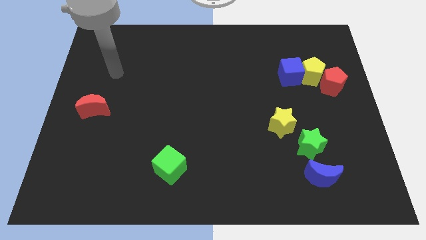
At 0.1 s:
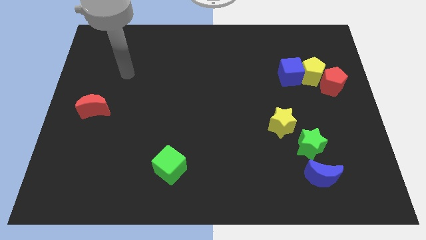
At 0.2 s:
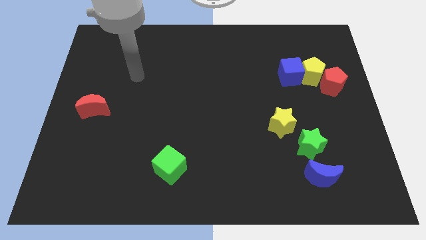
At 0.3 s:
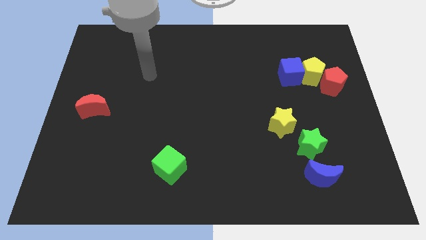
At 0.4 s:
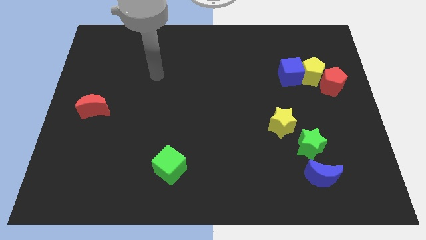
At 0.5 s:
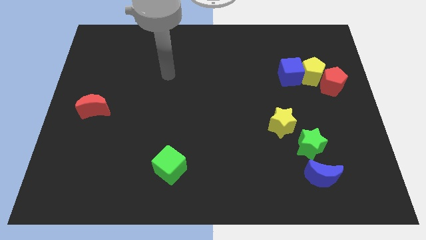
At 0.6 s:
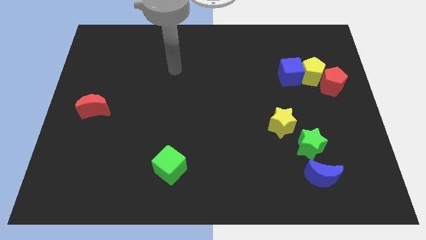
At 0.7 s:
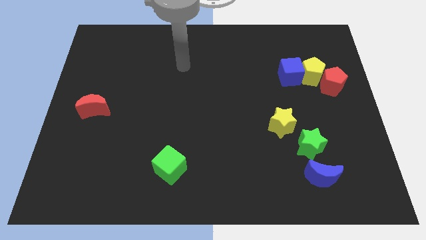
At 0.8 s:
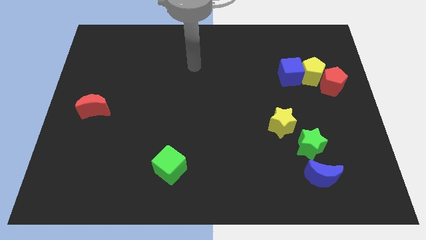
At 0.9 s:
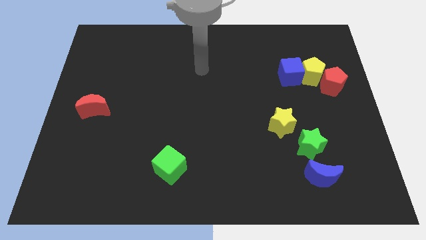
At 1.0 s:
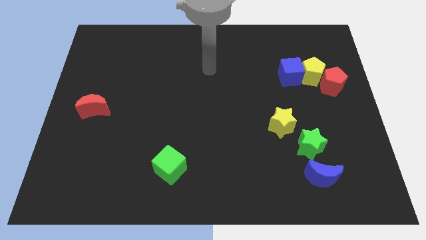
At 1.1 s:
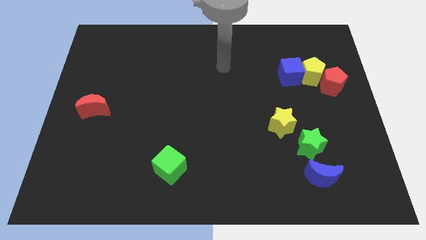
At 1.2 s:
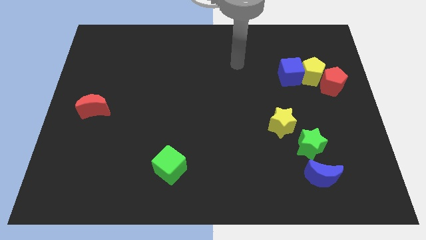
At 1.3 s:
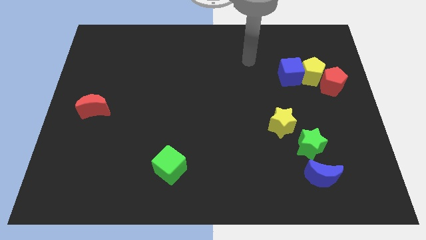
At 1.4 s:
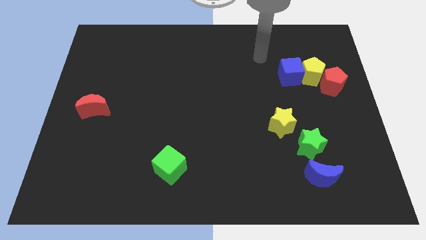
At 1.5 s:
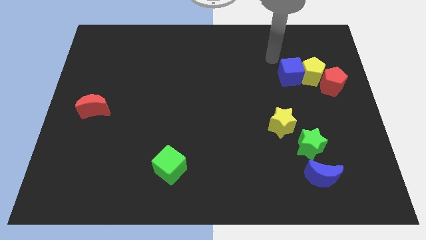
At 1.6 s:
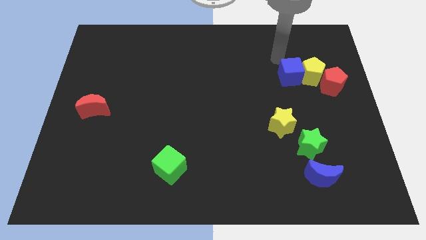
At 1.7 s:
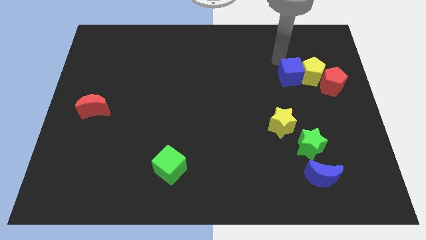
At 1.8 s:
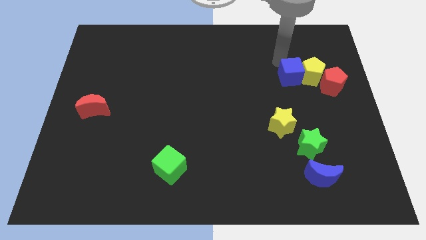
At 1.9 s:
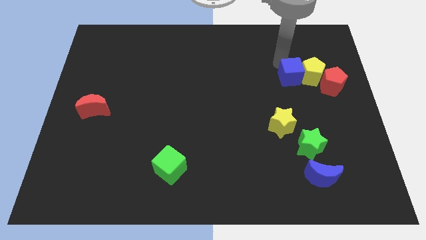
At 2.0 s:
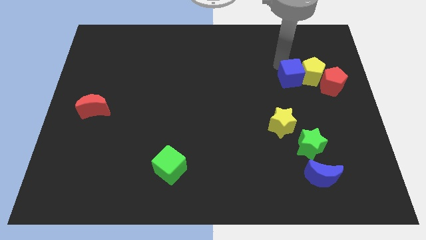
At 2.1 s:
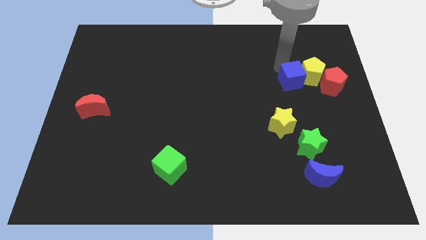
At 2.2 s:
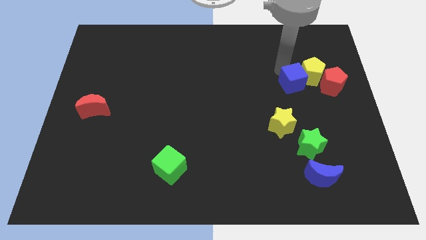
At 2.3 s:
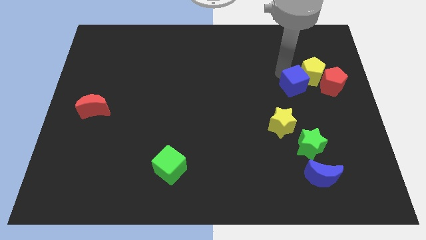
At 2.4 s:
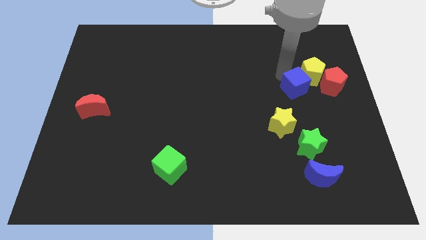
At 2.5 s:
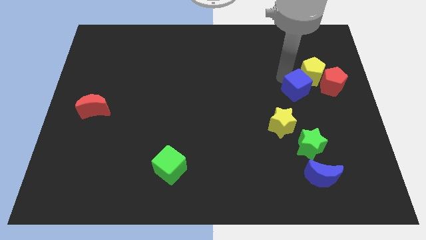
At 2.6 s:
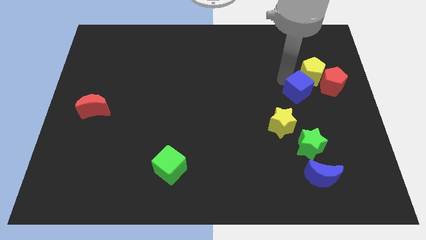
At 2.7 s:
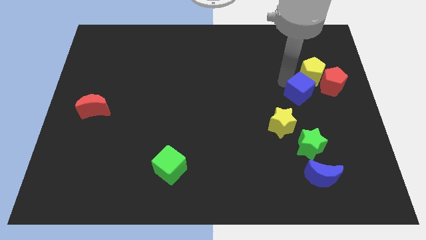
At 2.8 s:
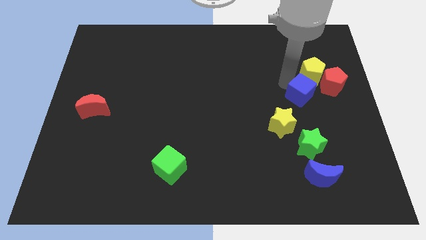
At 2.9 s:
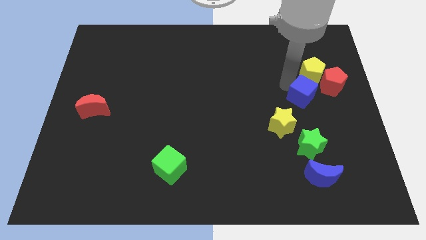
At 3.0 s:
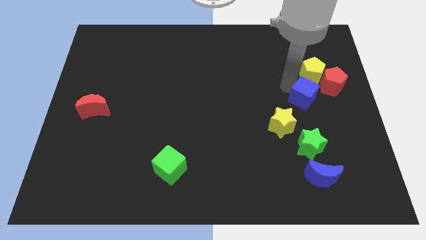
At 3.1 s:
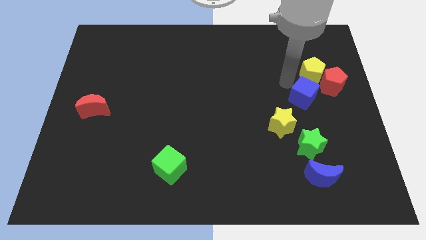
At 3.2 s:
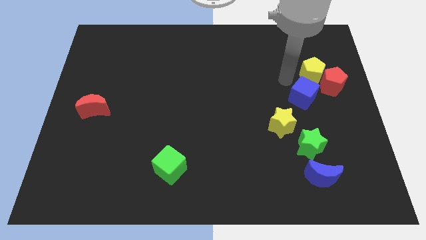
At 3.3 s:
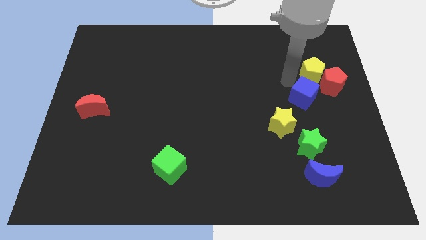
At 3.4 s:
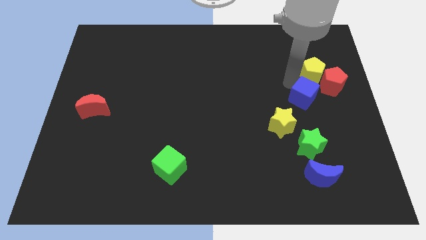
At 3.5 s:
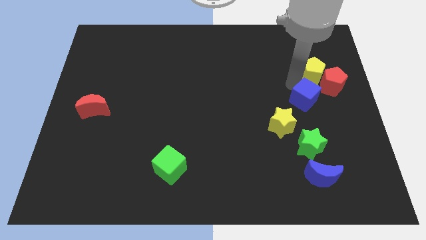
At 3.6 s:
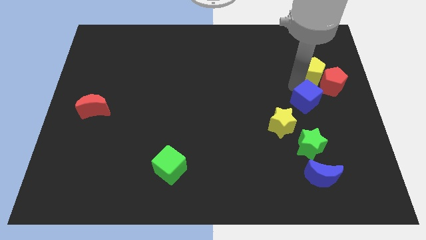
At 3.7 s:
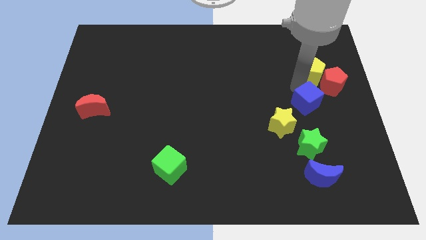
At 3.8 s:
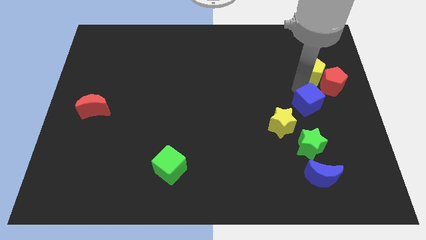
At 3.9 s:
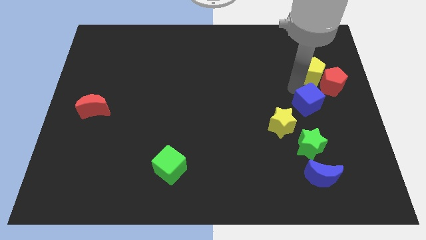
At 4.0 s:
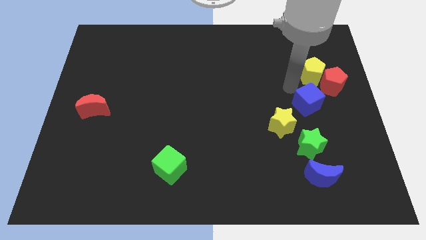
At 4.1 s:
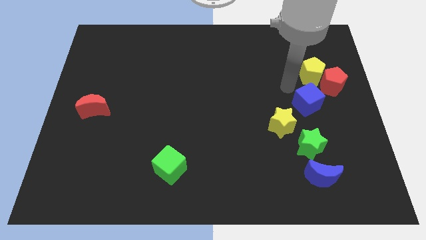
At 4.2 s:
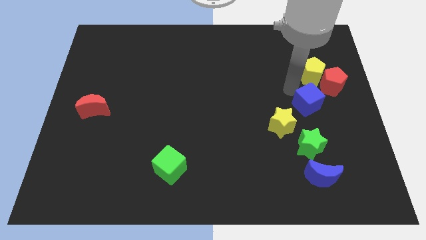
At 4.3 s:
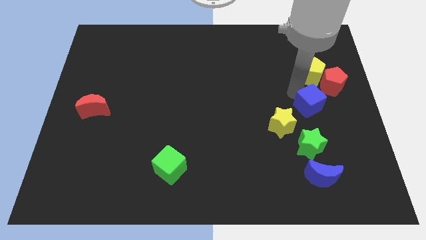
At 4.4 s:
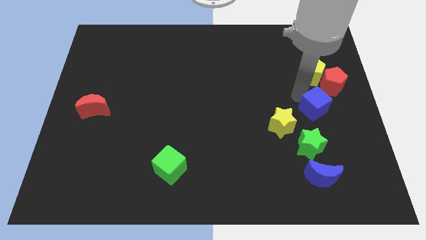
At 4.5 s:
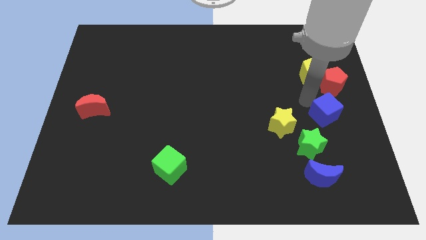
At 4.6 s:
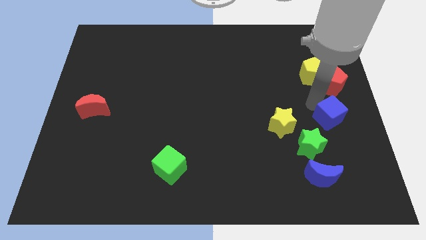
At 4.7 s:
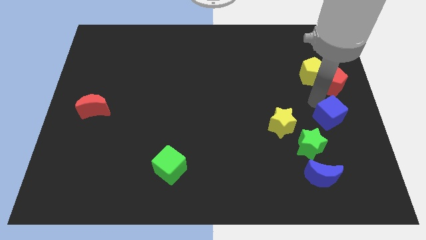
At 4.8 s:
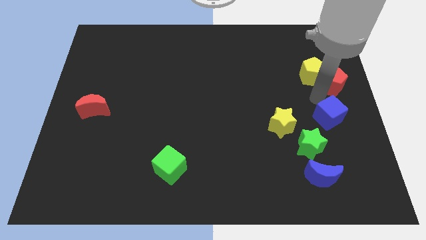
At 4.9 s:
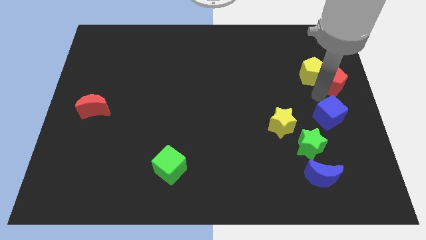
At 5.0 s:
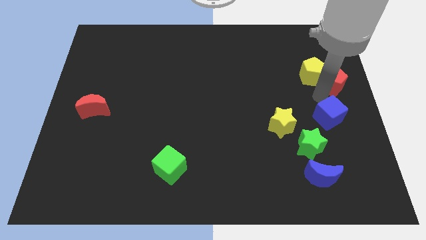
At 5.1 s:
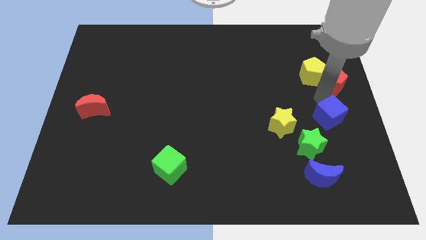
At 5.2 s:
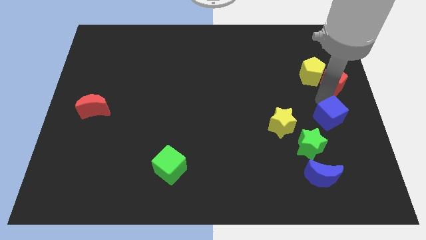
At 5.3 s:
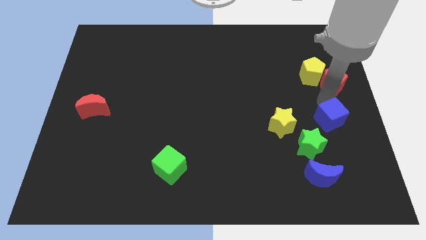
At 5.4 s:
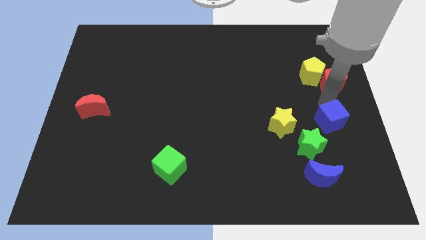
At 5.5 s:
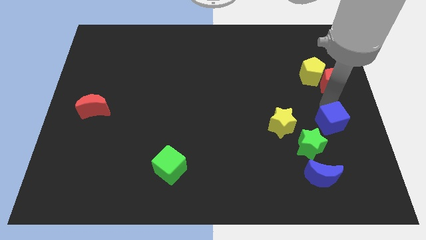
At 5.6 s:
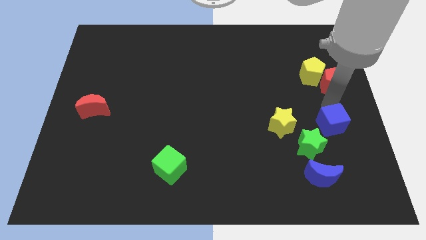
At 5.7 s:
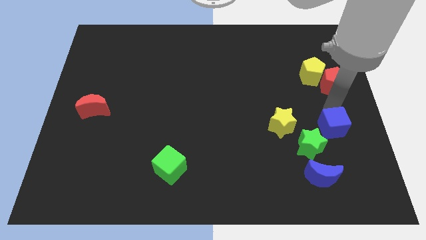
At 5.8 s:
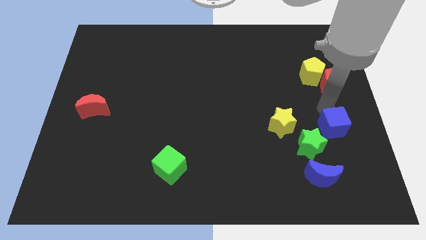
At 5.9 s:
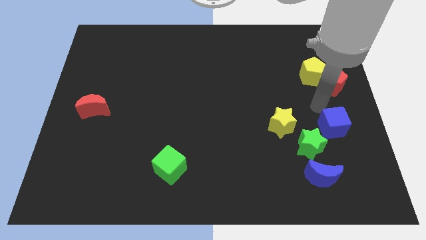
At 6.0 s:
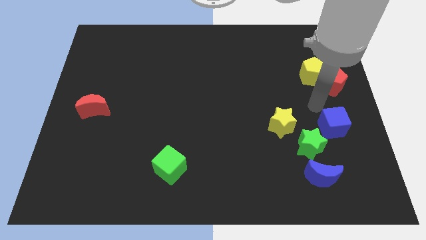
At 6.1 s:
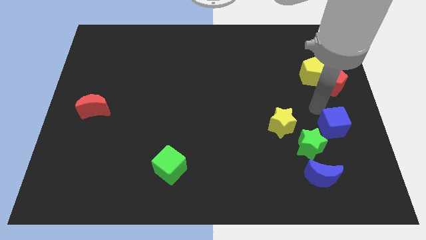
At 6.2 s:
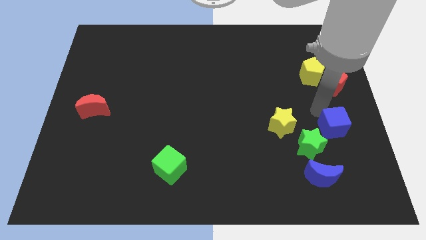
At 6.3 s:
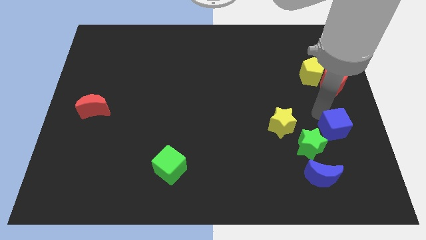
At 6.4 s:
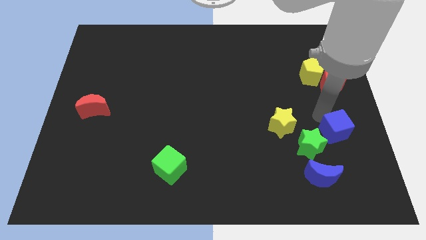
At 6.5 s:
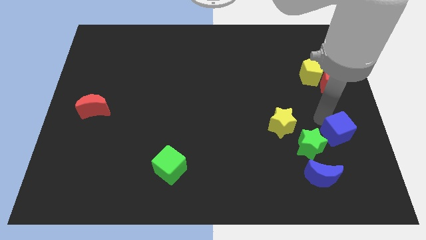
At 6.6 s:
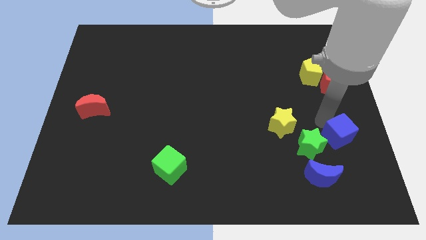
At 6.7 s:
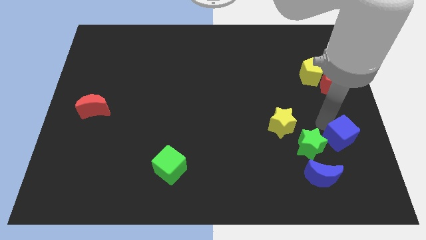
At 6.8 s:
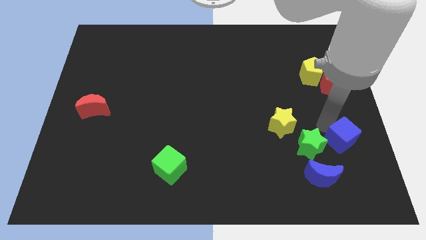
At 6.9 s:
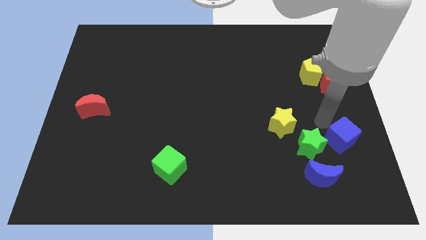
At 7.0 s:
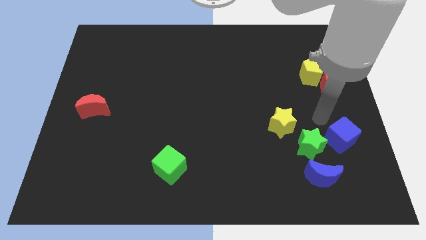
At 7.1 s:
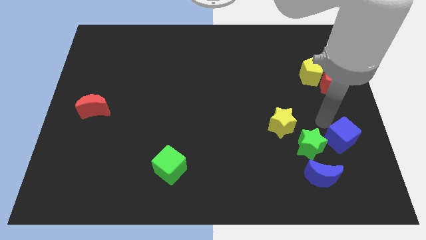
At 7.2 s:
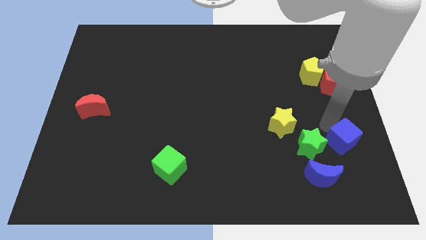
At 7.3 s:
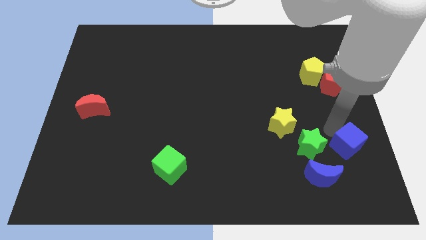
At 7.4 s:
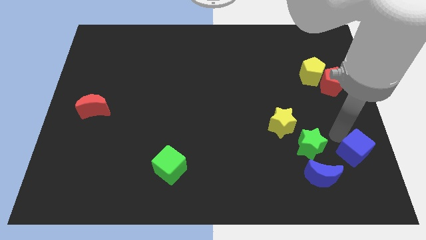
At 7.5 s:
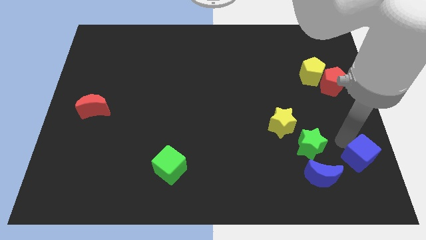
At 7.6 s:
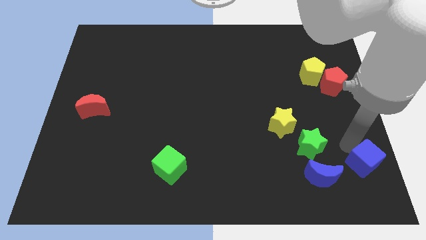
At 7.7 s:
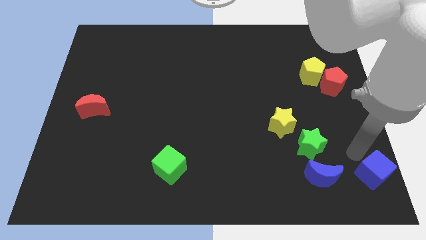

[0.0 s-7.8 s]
put the blue cube to the bottom right of the board
